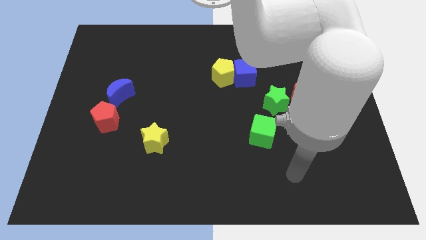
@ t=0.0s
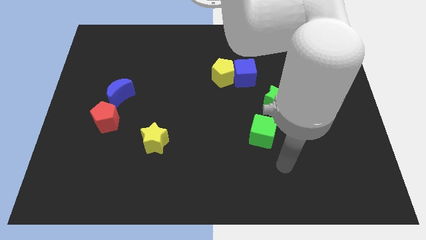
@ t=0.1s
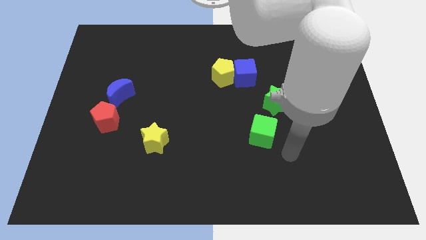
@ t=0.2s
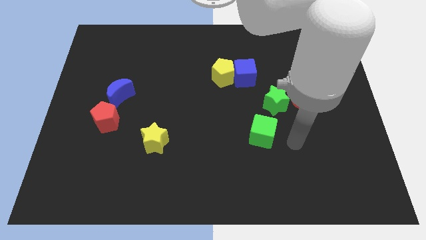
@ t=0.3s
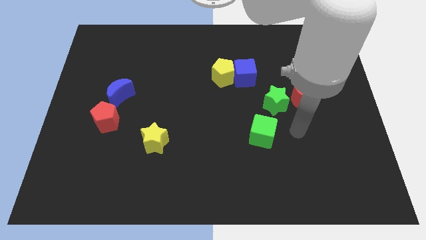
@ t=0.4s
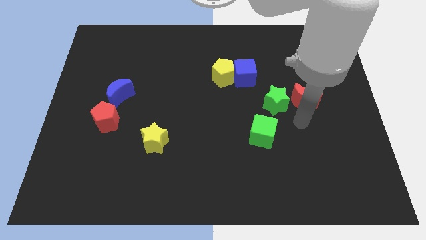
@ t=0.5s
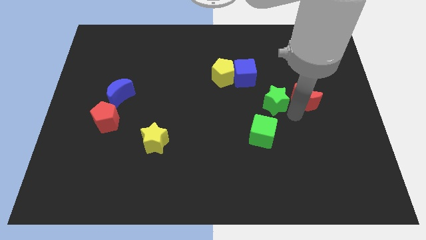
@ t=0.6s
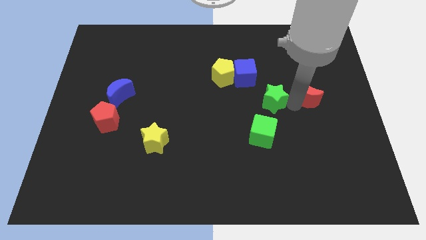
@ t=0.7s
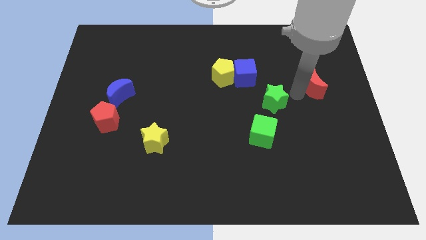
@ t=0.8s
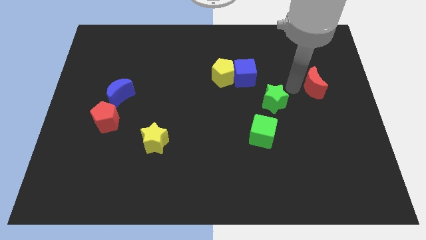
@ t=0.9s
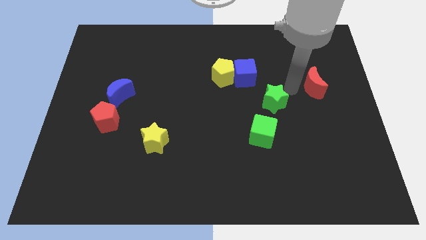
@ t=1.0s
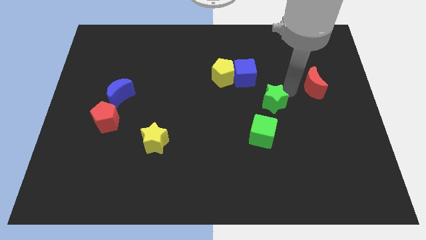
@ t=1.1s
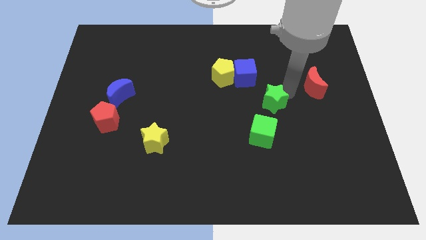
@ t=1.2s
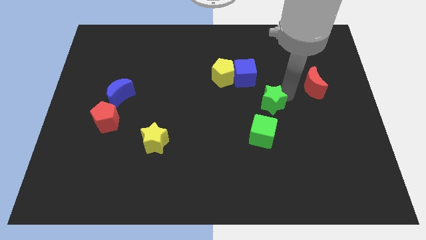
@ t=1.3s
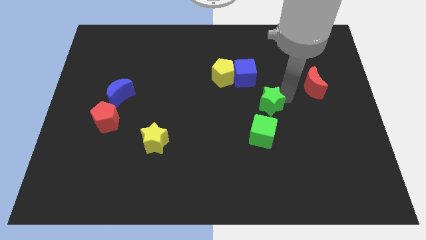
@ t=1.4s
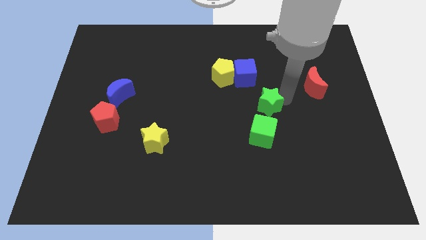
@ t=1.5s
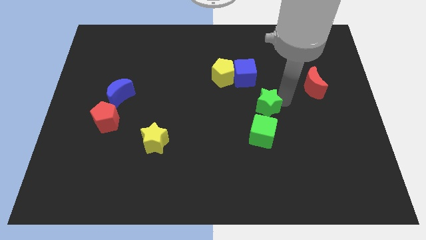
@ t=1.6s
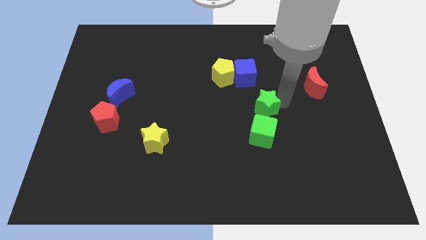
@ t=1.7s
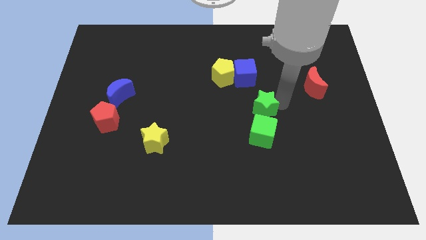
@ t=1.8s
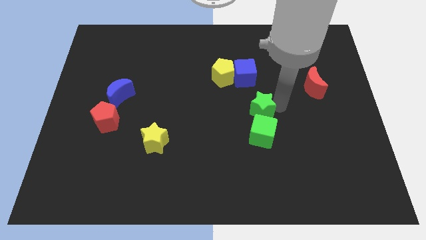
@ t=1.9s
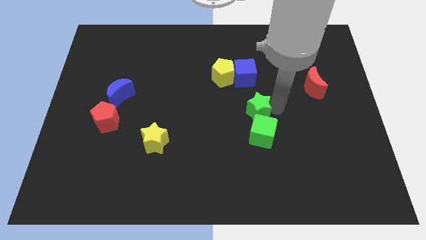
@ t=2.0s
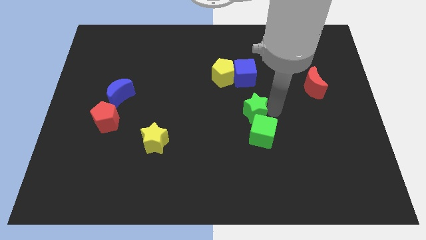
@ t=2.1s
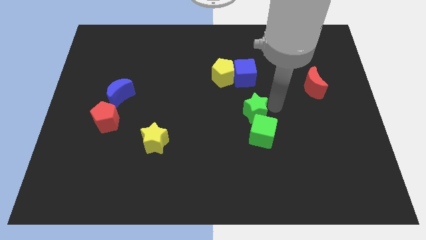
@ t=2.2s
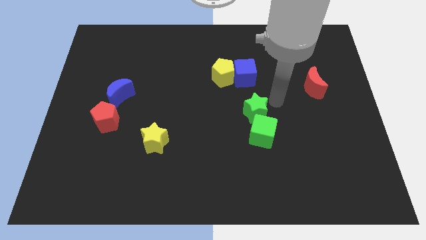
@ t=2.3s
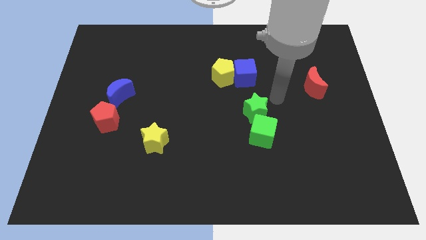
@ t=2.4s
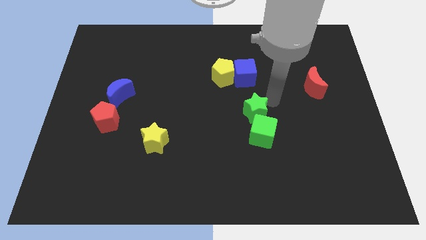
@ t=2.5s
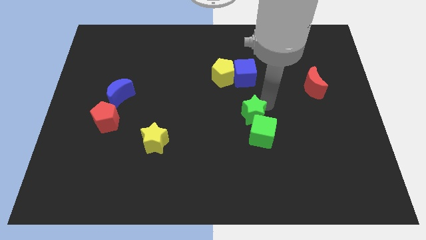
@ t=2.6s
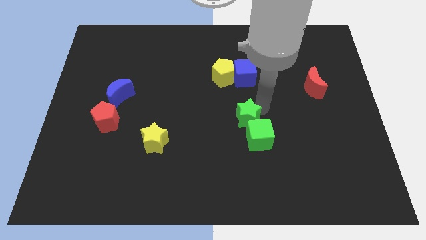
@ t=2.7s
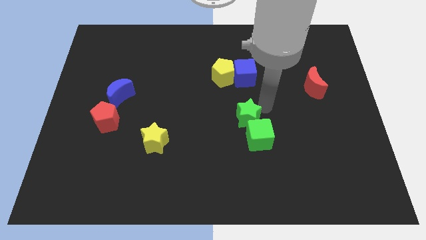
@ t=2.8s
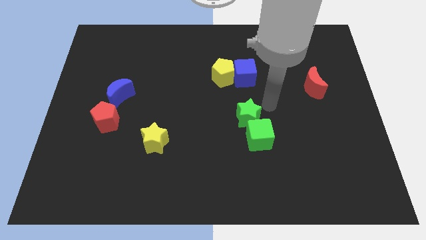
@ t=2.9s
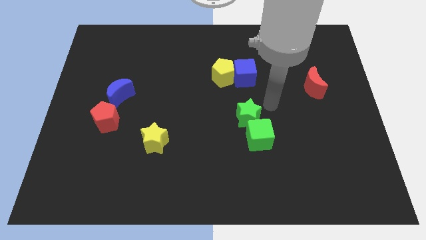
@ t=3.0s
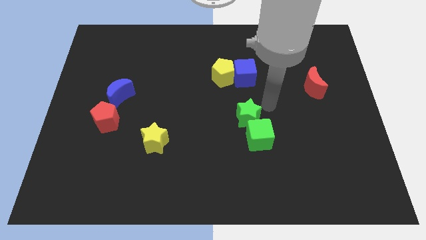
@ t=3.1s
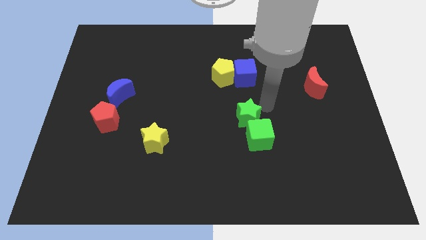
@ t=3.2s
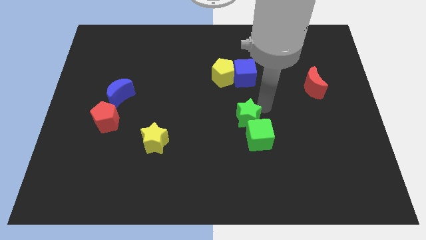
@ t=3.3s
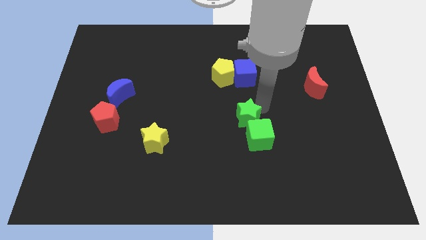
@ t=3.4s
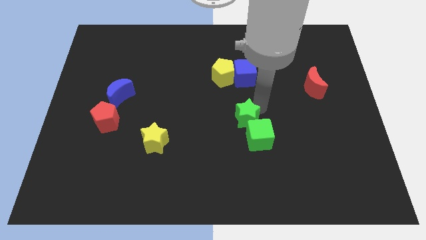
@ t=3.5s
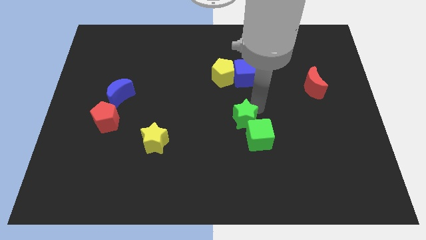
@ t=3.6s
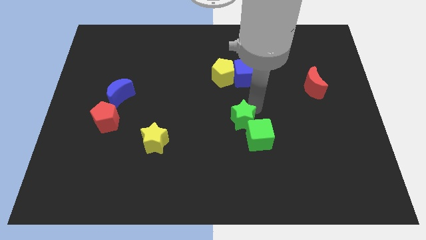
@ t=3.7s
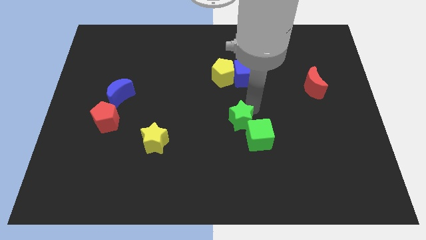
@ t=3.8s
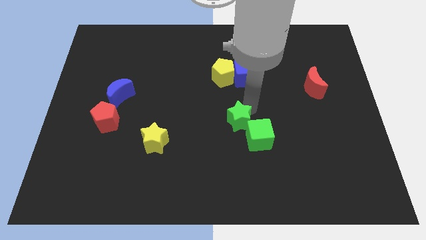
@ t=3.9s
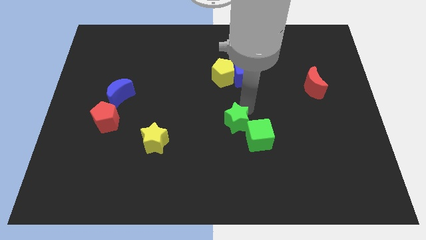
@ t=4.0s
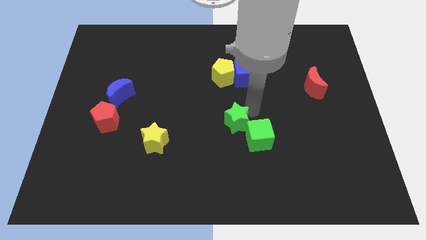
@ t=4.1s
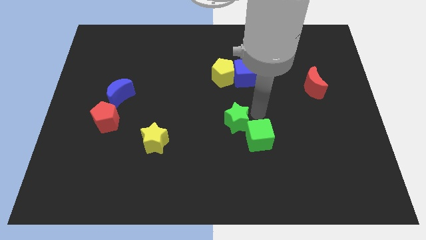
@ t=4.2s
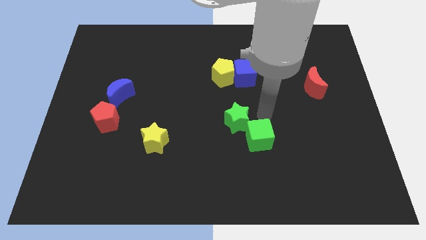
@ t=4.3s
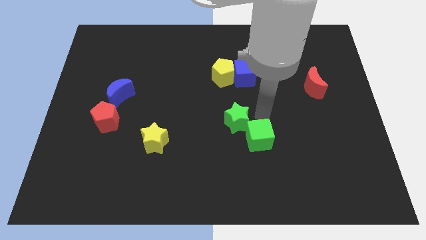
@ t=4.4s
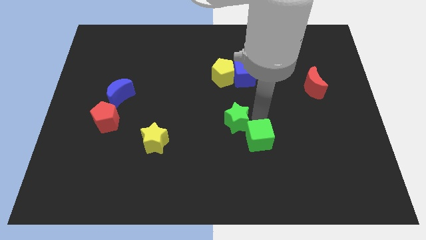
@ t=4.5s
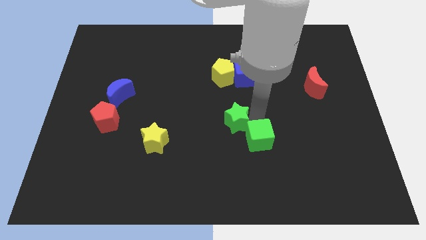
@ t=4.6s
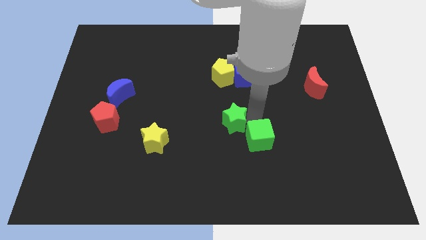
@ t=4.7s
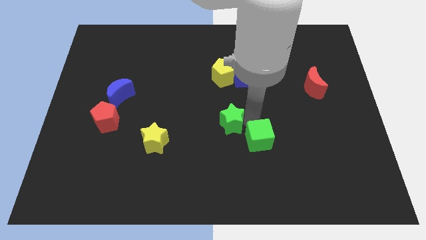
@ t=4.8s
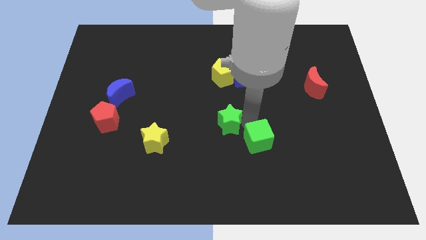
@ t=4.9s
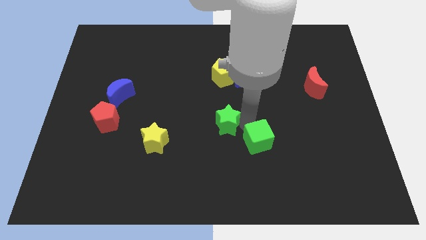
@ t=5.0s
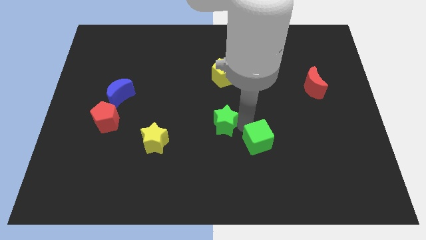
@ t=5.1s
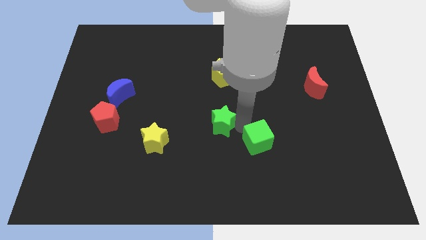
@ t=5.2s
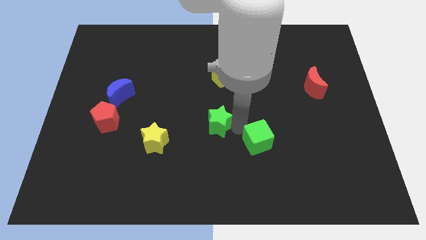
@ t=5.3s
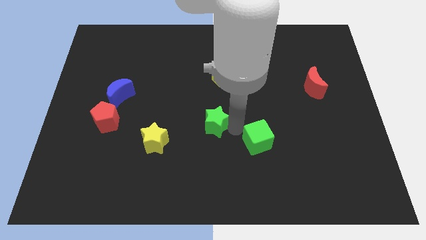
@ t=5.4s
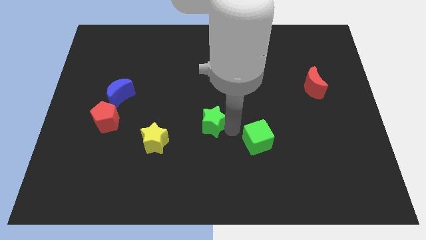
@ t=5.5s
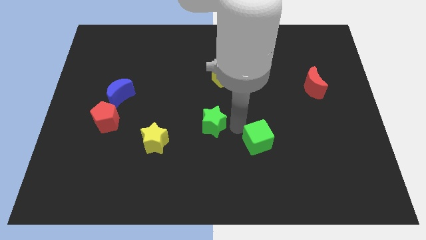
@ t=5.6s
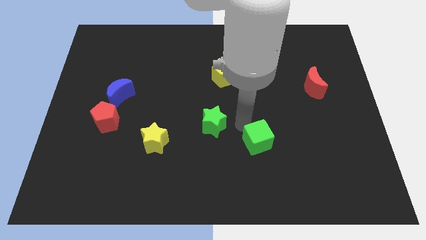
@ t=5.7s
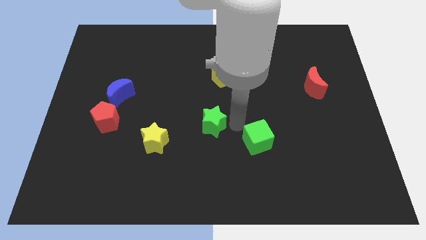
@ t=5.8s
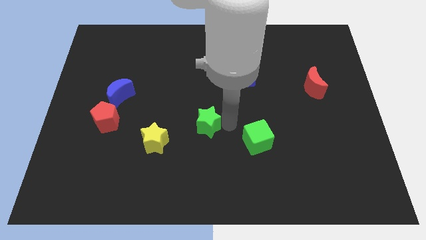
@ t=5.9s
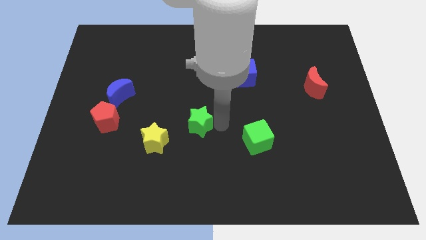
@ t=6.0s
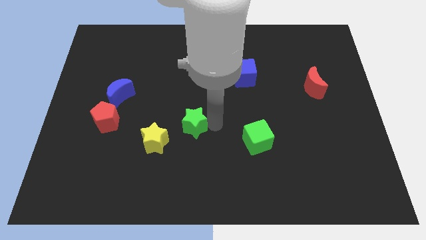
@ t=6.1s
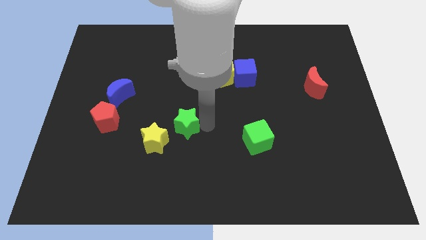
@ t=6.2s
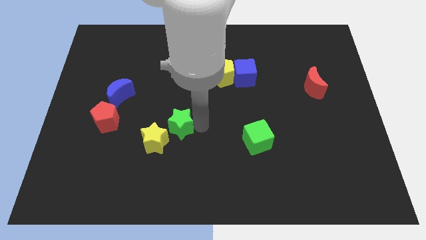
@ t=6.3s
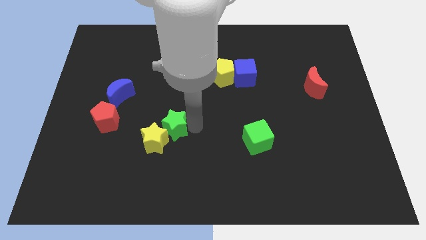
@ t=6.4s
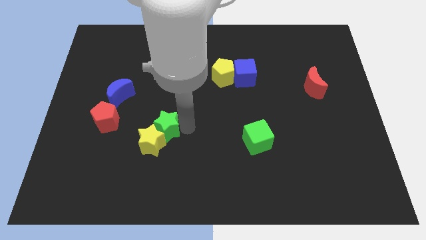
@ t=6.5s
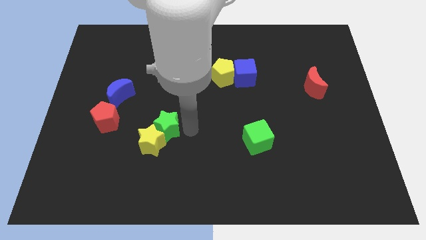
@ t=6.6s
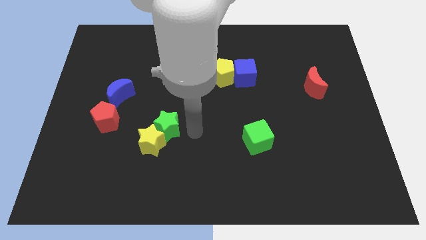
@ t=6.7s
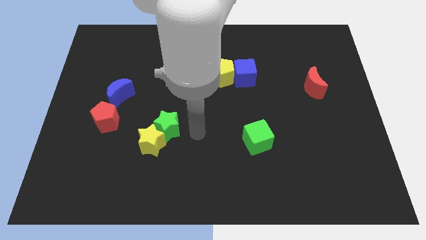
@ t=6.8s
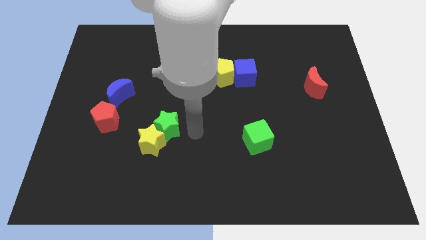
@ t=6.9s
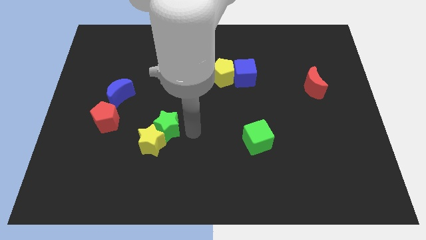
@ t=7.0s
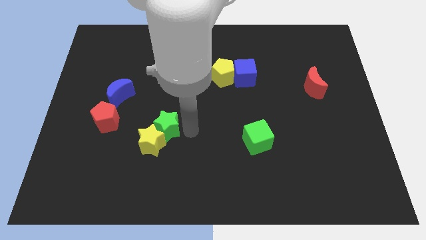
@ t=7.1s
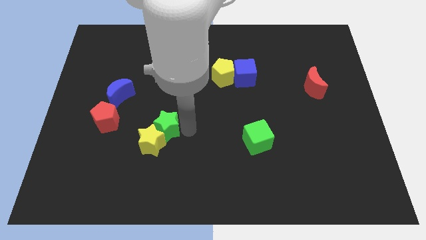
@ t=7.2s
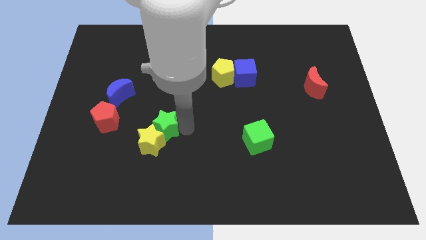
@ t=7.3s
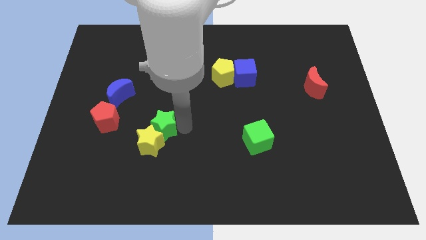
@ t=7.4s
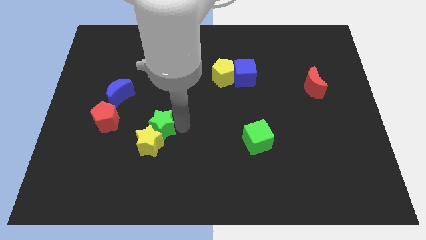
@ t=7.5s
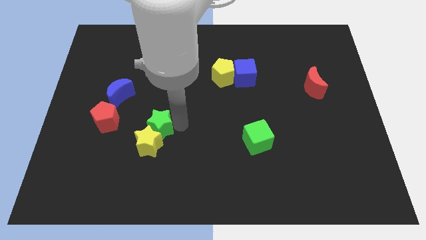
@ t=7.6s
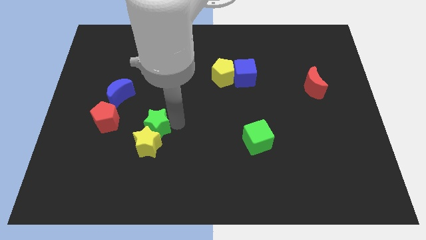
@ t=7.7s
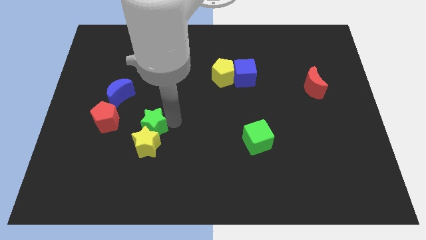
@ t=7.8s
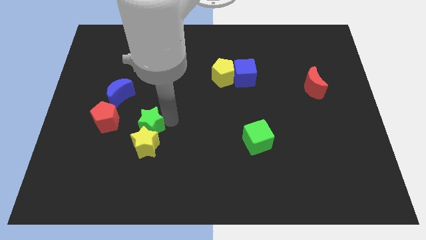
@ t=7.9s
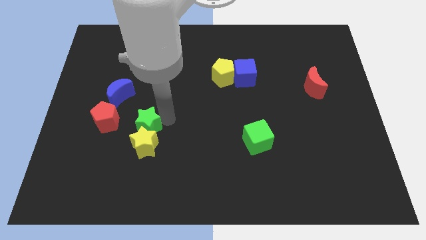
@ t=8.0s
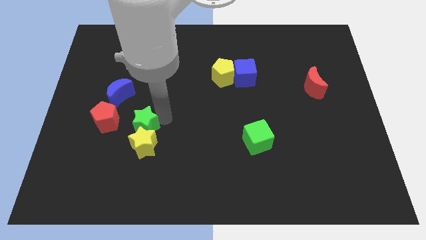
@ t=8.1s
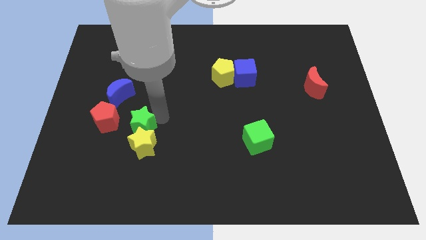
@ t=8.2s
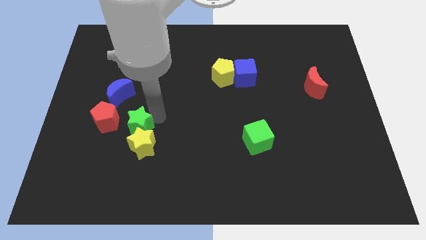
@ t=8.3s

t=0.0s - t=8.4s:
push the green star to the bottom right of the red pentagon
